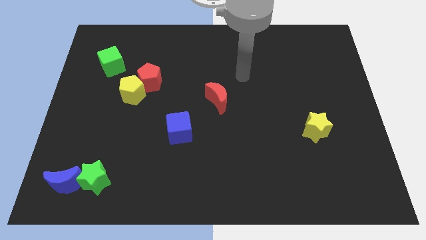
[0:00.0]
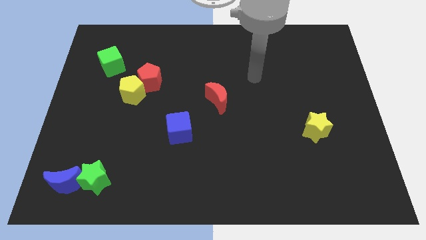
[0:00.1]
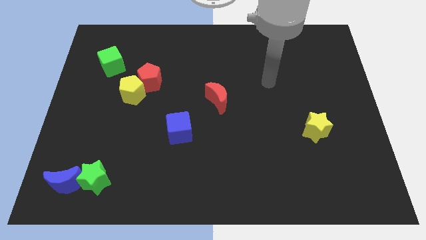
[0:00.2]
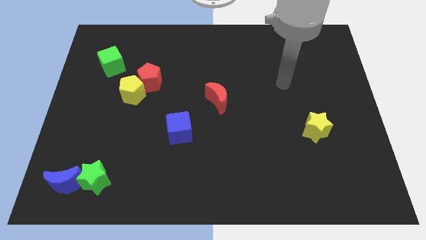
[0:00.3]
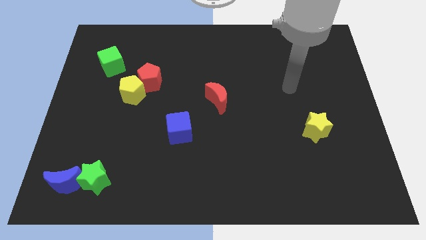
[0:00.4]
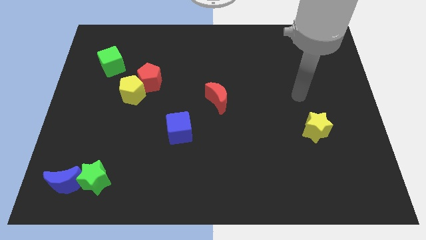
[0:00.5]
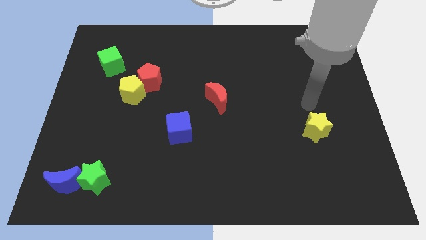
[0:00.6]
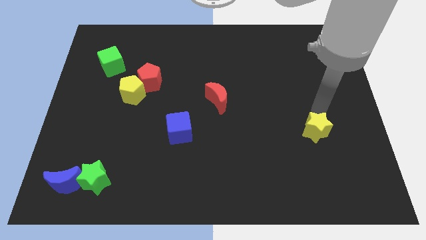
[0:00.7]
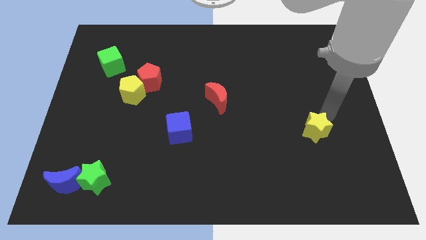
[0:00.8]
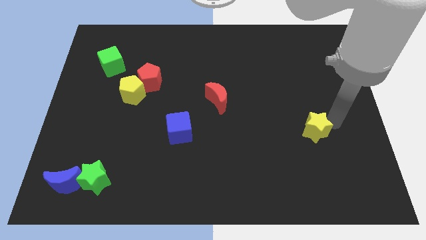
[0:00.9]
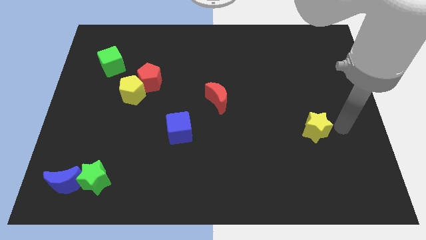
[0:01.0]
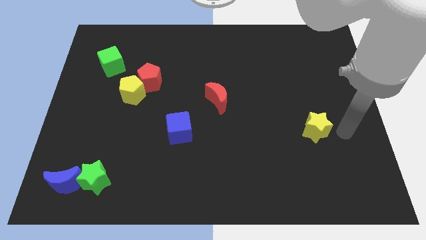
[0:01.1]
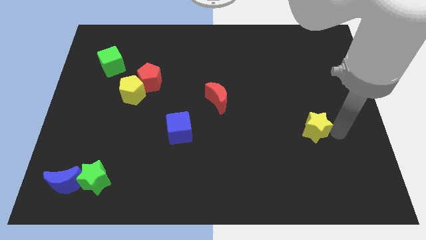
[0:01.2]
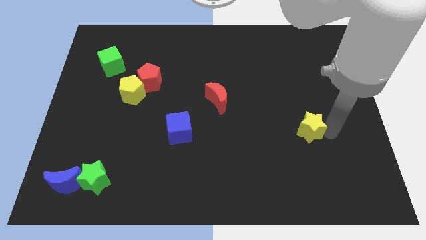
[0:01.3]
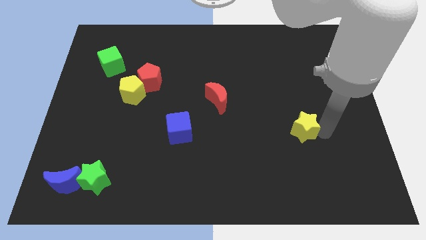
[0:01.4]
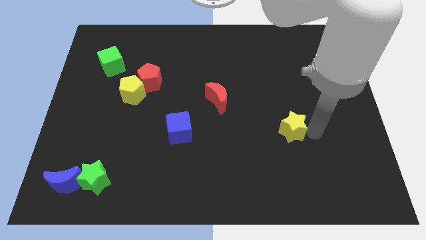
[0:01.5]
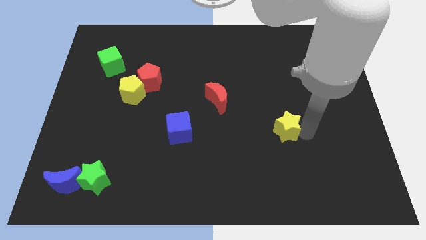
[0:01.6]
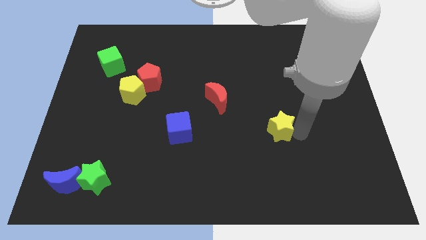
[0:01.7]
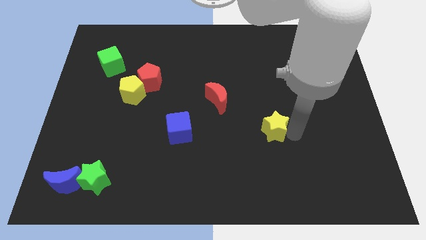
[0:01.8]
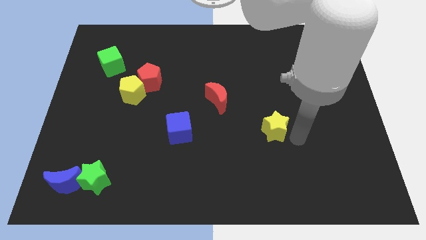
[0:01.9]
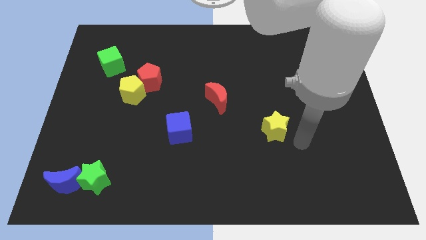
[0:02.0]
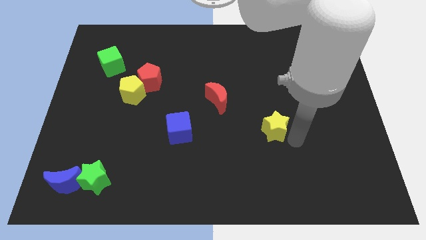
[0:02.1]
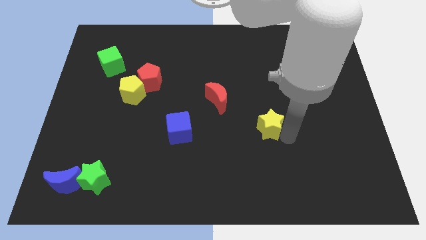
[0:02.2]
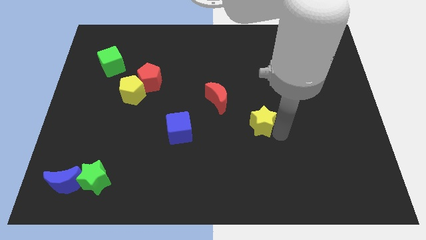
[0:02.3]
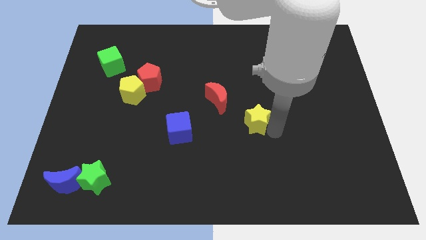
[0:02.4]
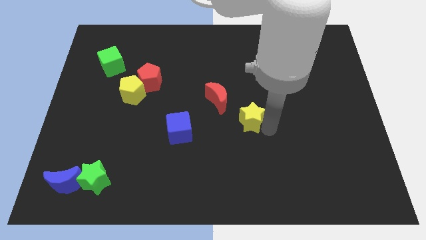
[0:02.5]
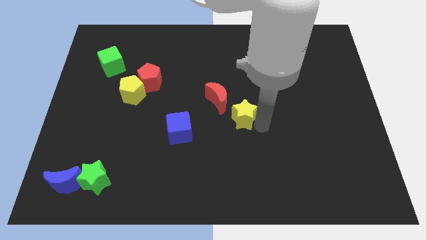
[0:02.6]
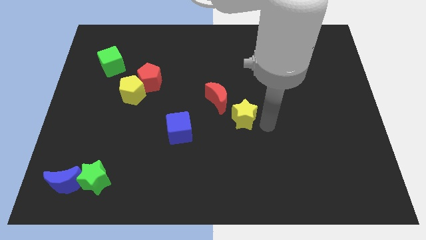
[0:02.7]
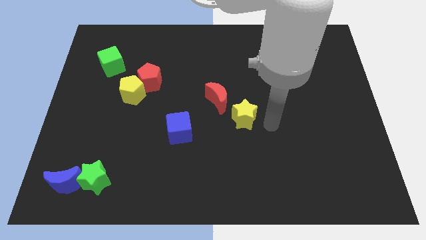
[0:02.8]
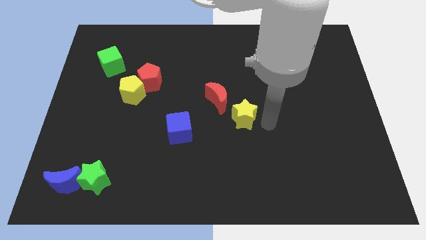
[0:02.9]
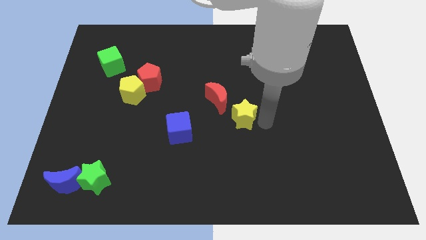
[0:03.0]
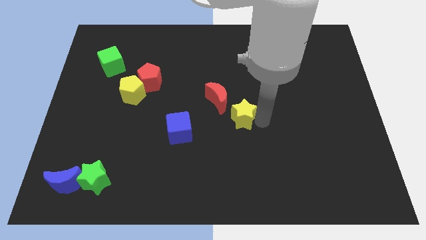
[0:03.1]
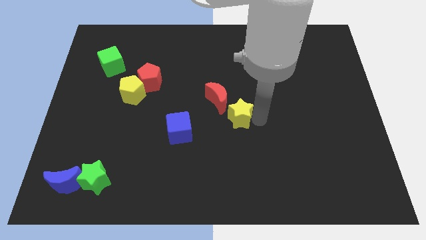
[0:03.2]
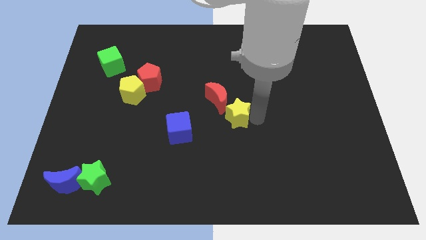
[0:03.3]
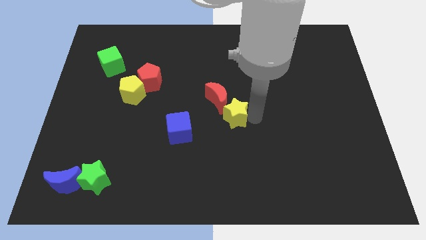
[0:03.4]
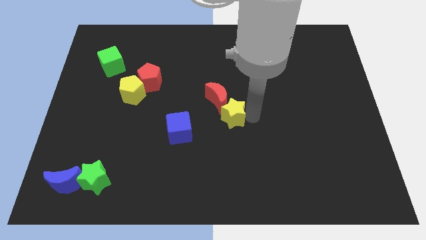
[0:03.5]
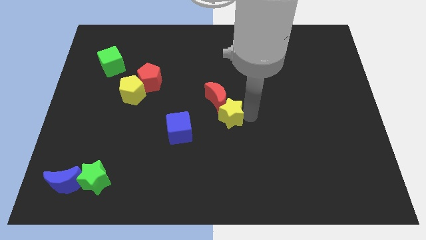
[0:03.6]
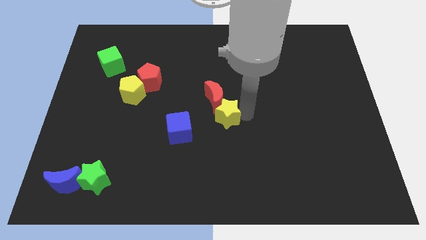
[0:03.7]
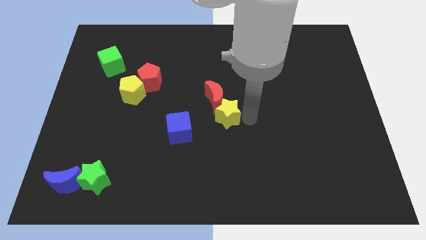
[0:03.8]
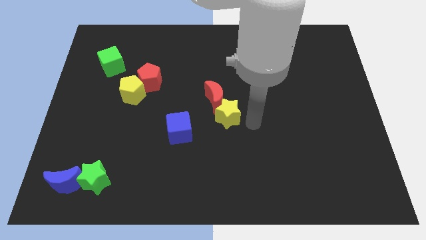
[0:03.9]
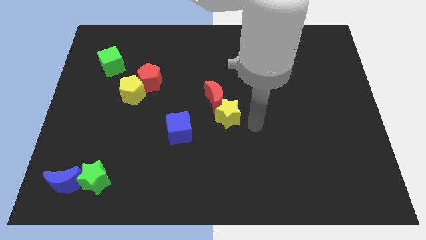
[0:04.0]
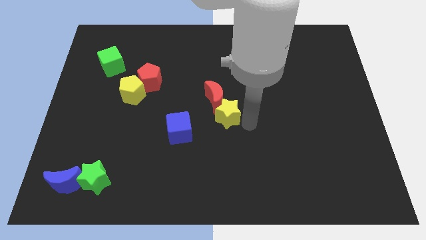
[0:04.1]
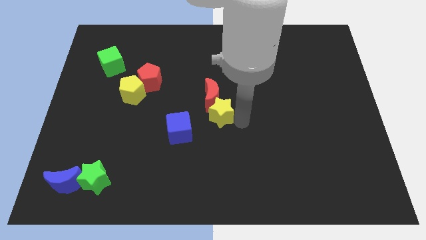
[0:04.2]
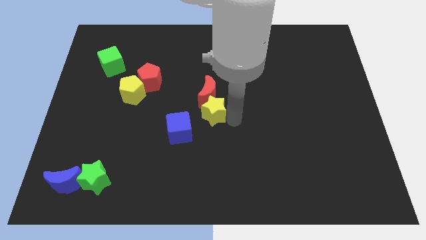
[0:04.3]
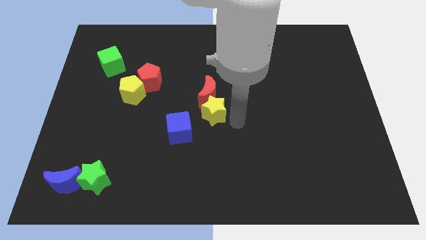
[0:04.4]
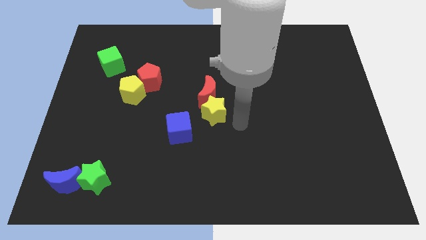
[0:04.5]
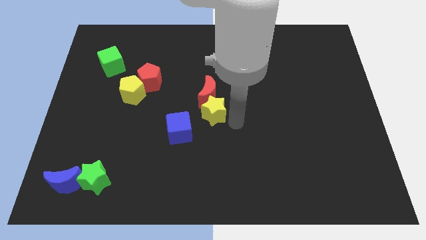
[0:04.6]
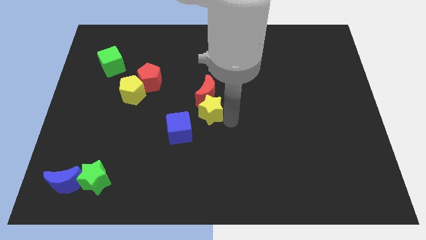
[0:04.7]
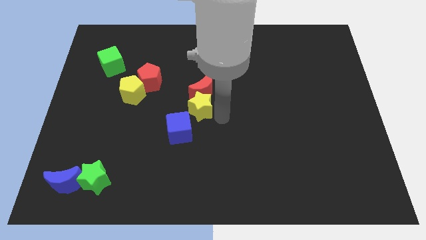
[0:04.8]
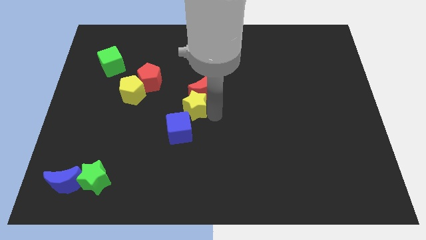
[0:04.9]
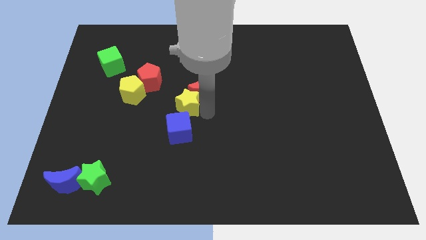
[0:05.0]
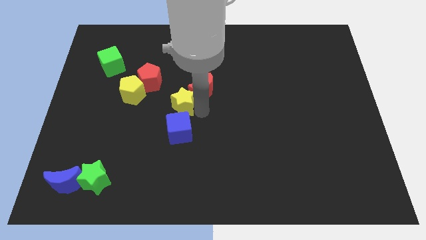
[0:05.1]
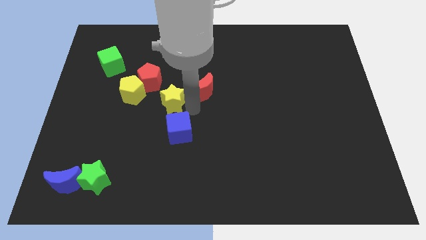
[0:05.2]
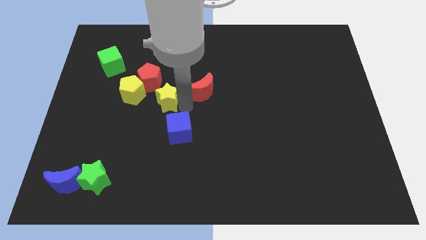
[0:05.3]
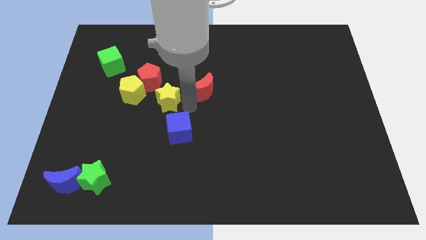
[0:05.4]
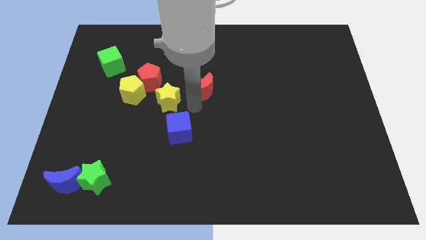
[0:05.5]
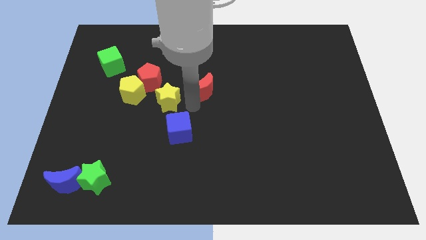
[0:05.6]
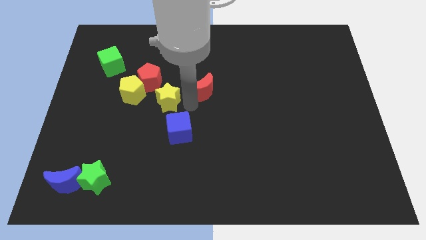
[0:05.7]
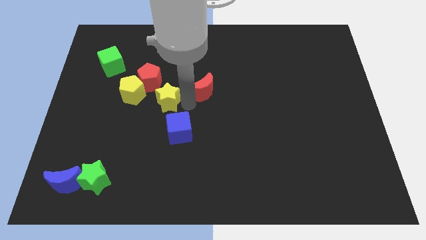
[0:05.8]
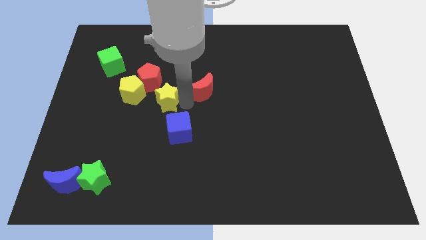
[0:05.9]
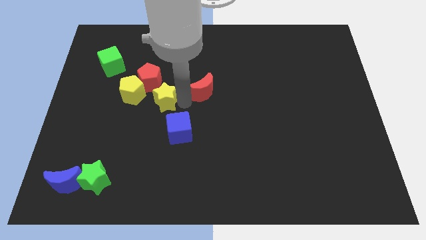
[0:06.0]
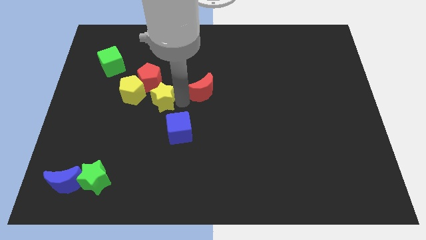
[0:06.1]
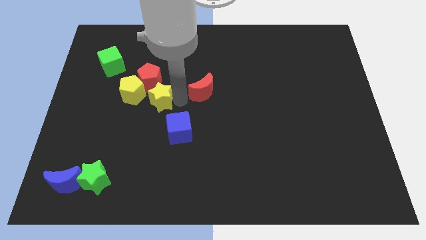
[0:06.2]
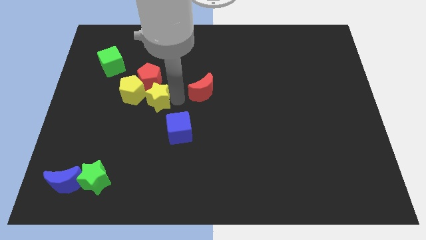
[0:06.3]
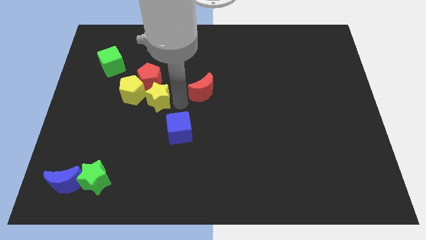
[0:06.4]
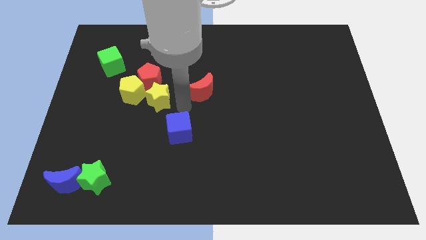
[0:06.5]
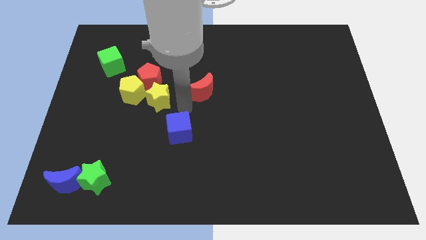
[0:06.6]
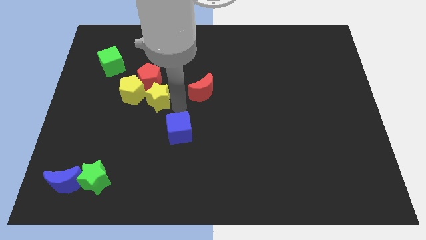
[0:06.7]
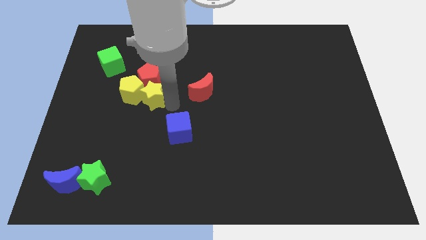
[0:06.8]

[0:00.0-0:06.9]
push the yellow star next to the yellow pentagon

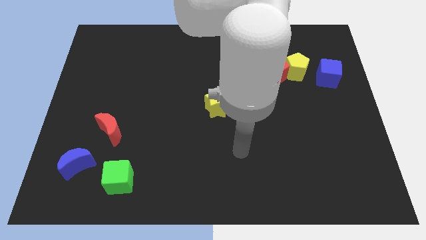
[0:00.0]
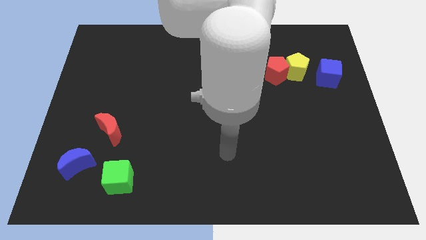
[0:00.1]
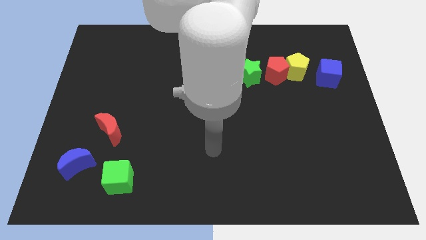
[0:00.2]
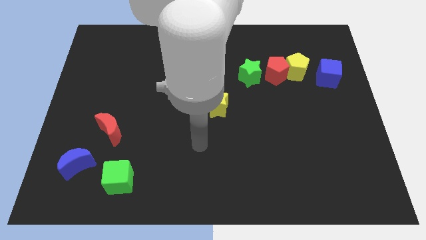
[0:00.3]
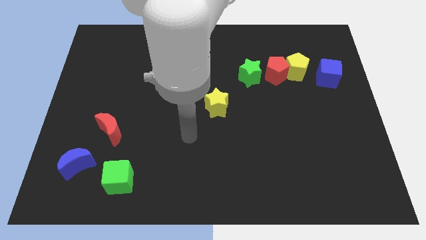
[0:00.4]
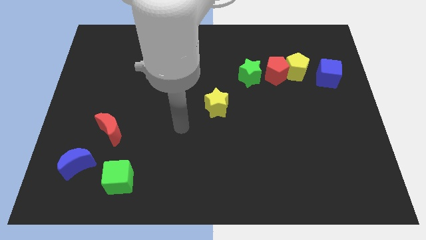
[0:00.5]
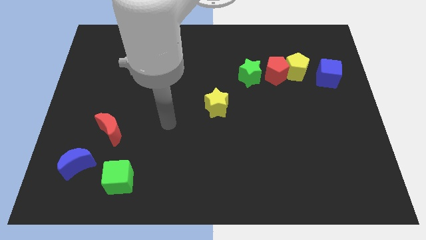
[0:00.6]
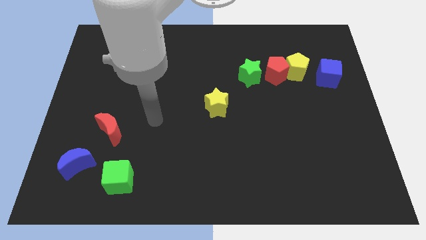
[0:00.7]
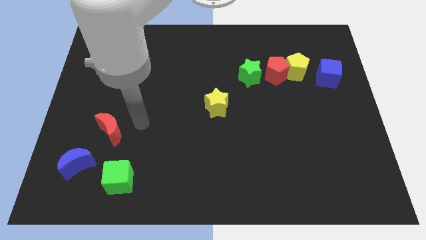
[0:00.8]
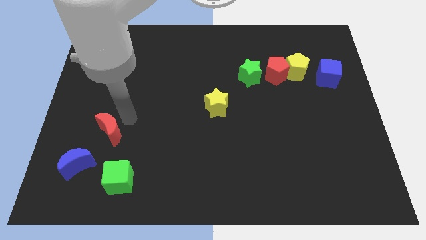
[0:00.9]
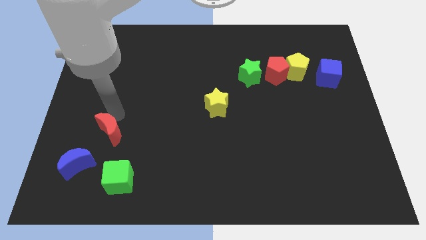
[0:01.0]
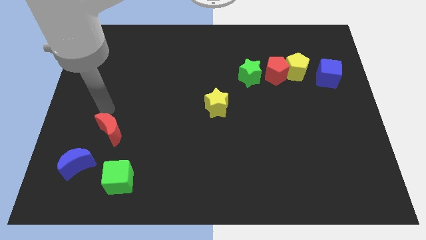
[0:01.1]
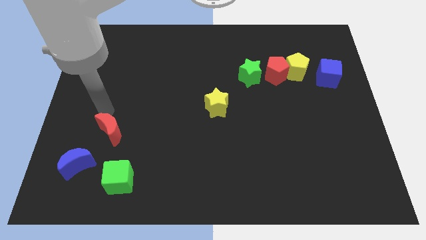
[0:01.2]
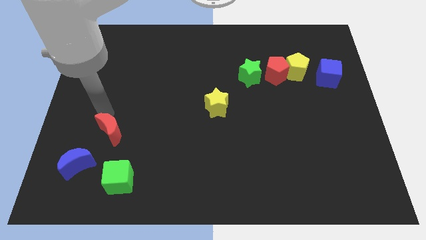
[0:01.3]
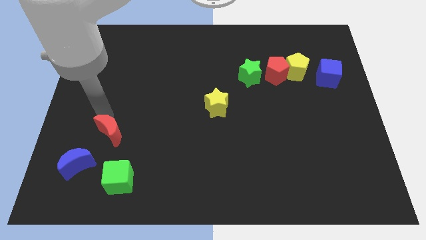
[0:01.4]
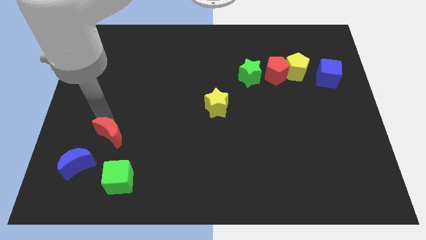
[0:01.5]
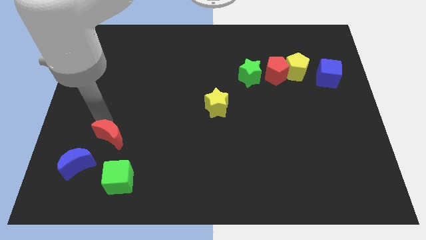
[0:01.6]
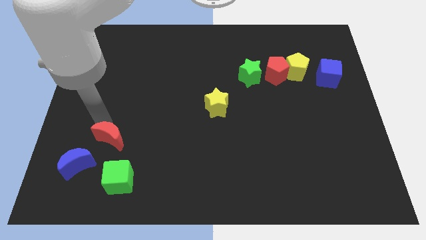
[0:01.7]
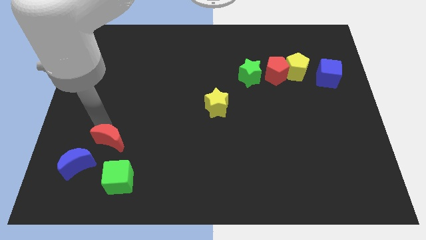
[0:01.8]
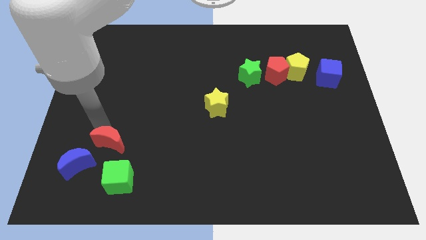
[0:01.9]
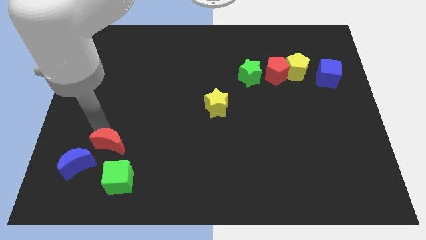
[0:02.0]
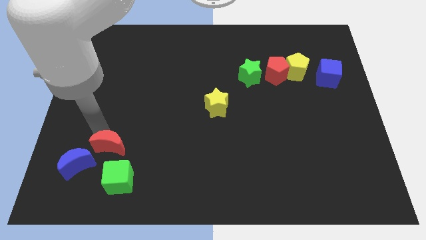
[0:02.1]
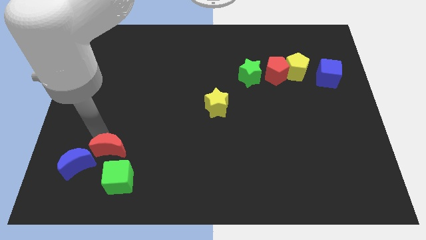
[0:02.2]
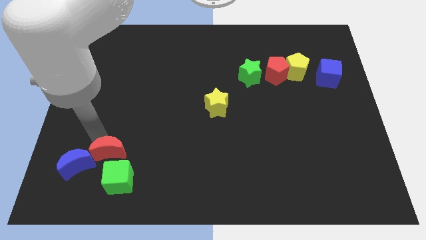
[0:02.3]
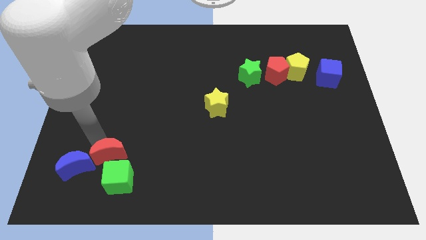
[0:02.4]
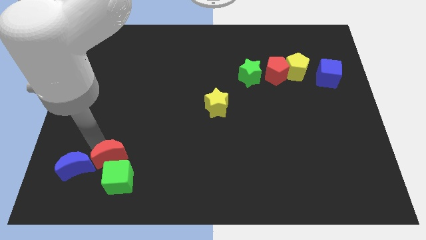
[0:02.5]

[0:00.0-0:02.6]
move the red moon close to the green cube
